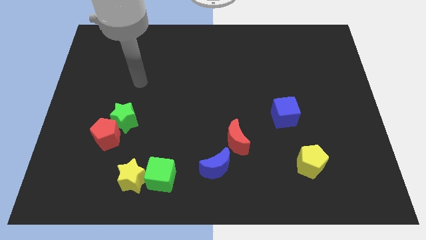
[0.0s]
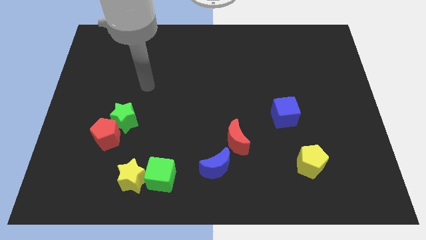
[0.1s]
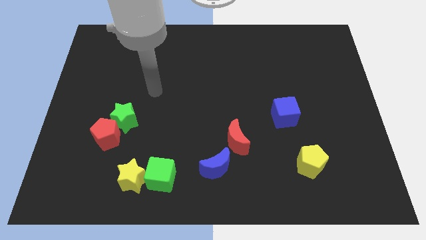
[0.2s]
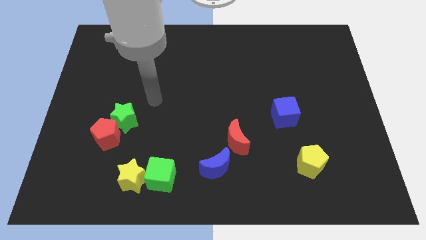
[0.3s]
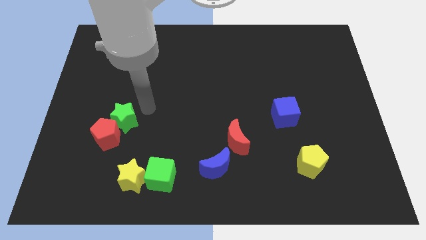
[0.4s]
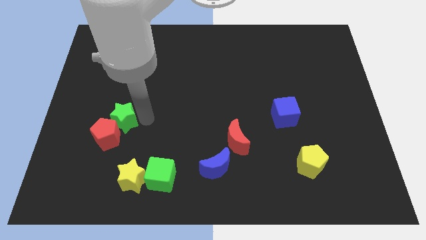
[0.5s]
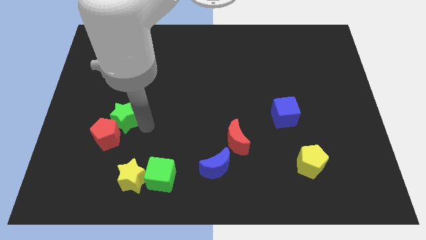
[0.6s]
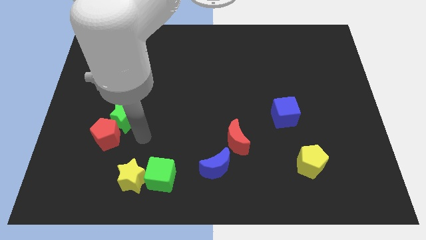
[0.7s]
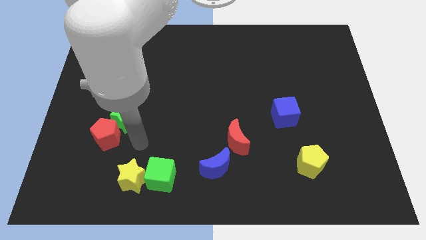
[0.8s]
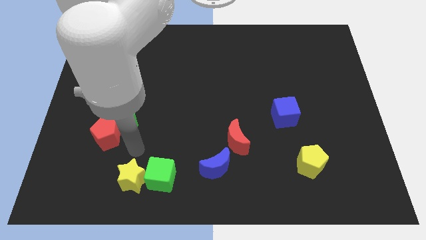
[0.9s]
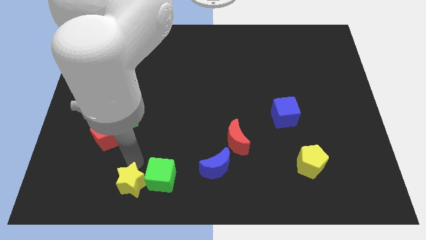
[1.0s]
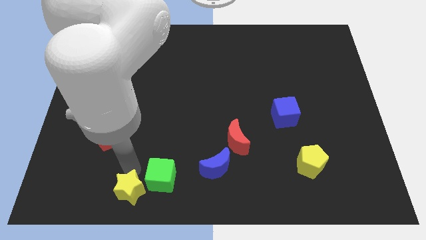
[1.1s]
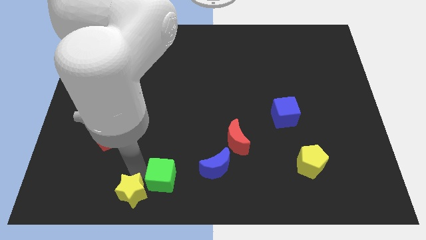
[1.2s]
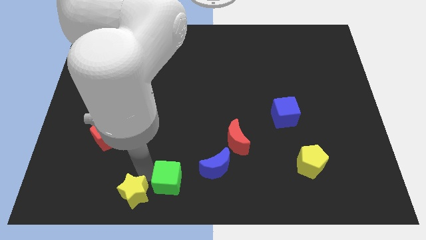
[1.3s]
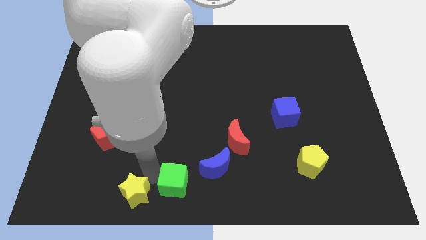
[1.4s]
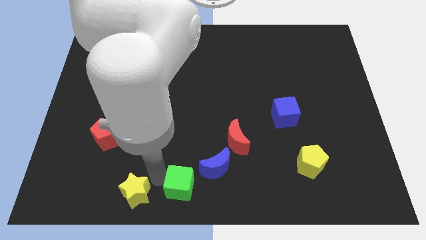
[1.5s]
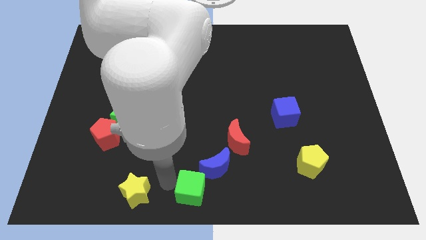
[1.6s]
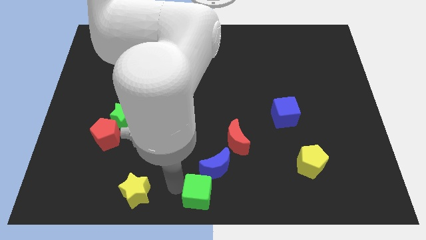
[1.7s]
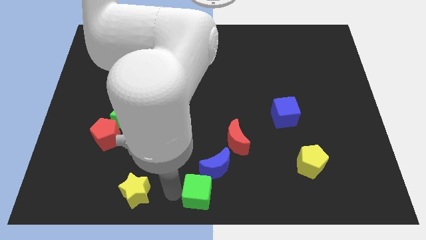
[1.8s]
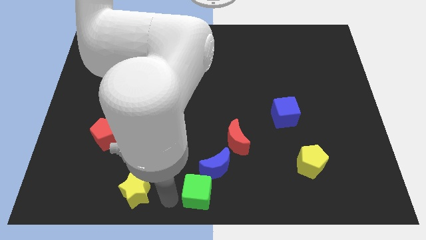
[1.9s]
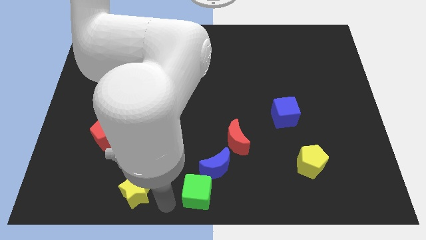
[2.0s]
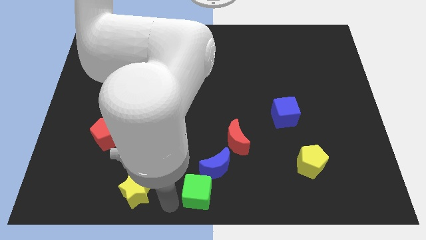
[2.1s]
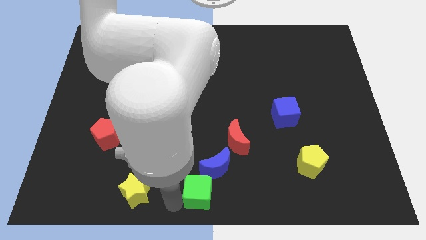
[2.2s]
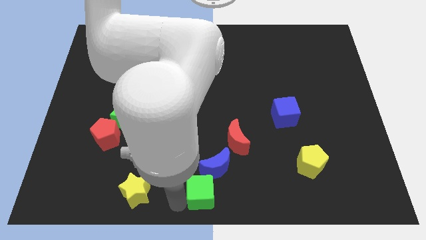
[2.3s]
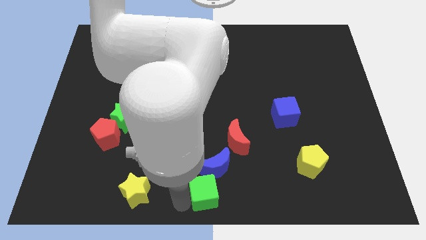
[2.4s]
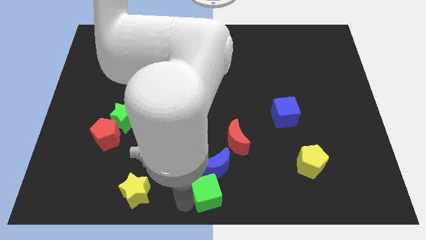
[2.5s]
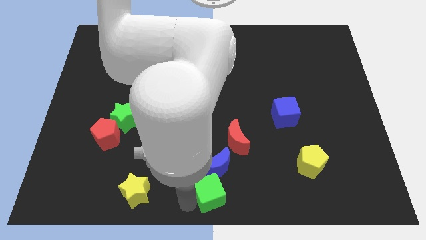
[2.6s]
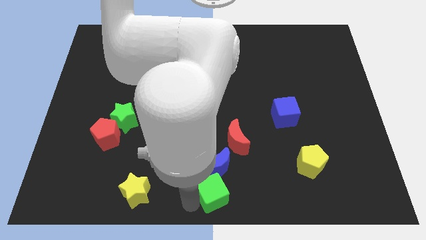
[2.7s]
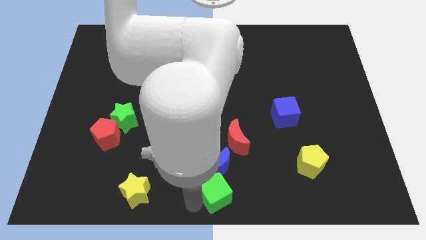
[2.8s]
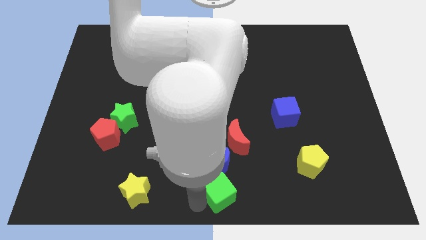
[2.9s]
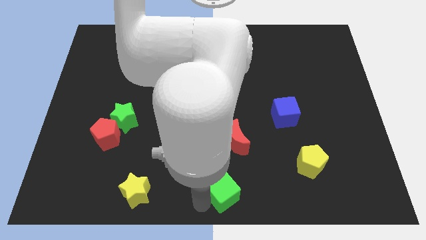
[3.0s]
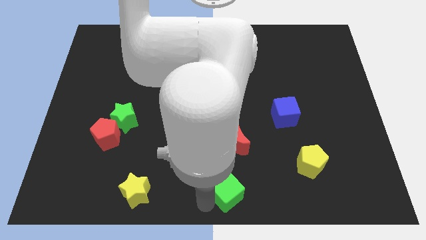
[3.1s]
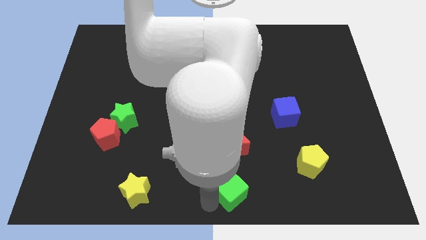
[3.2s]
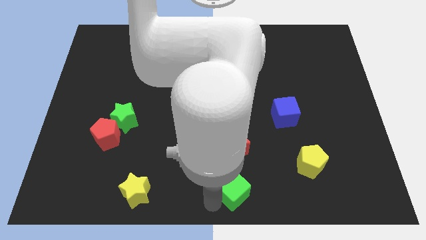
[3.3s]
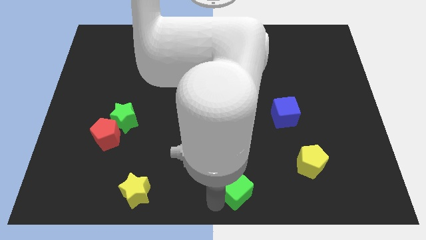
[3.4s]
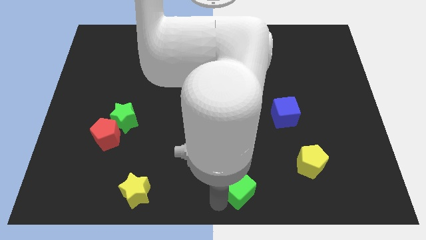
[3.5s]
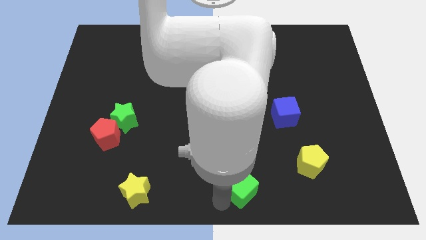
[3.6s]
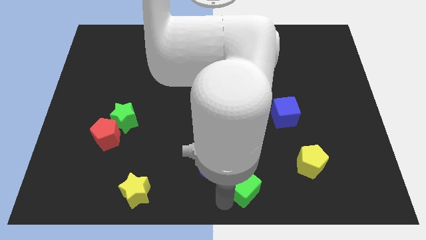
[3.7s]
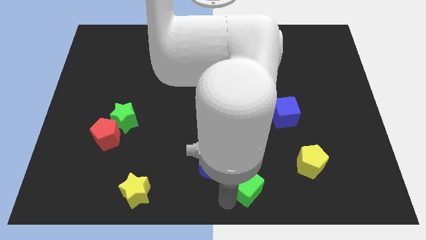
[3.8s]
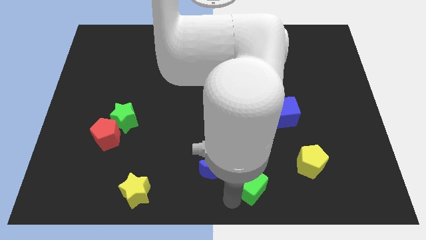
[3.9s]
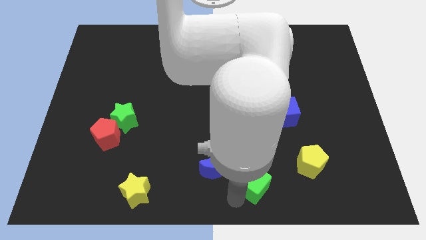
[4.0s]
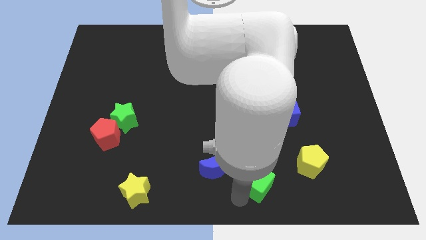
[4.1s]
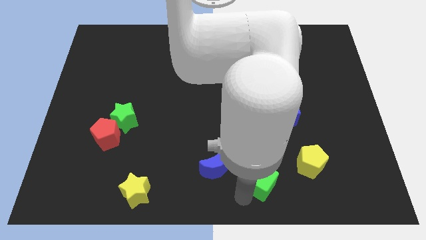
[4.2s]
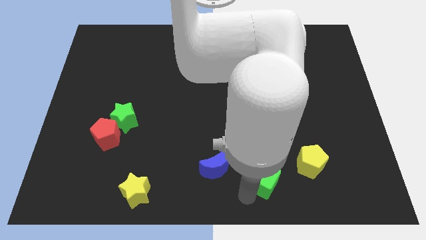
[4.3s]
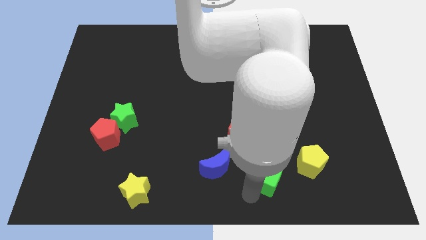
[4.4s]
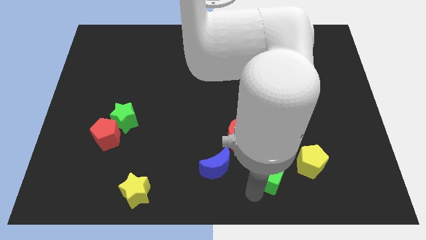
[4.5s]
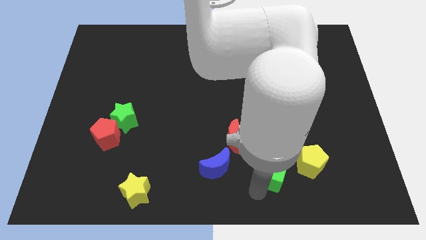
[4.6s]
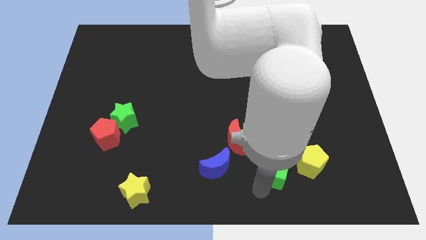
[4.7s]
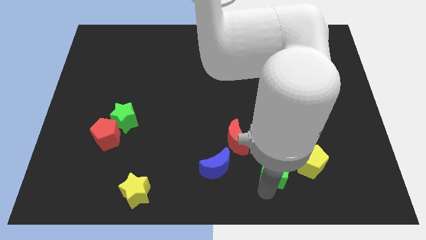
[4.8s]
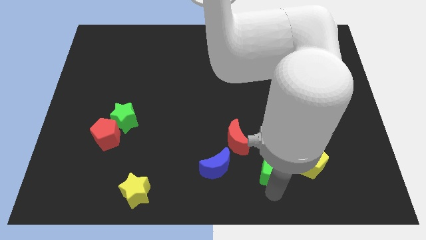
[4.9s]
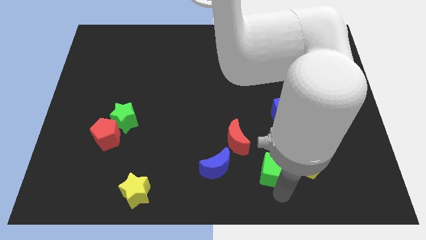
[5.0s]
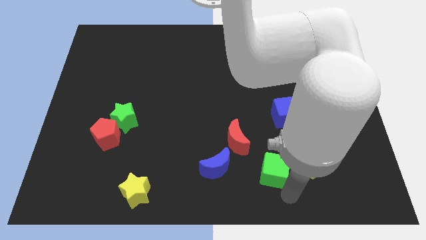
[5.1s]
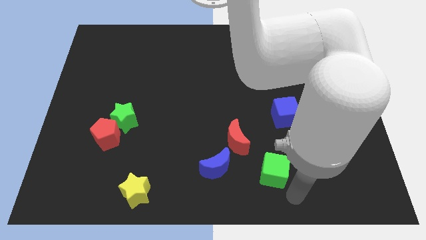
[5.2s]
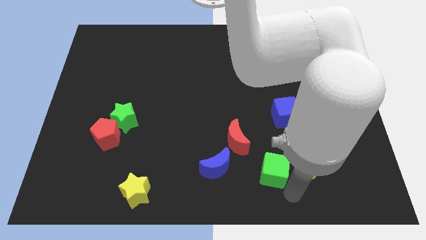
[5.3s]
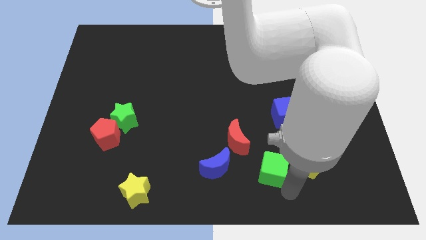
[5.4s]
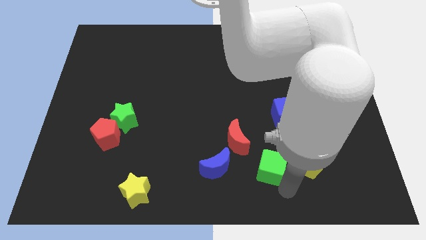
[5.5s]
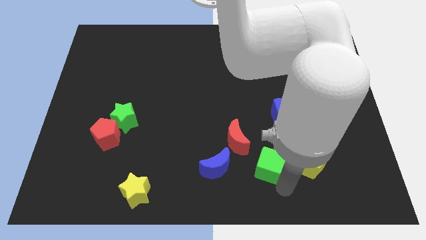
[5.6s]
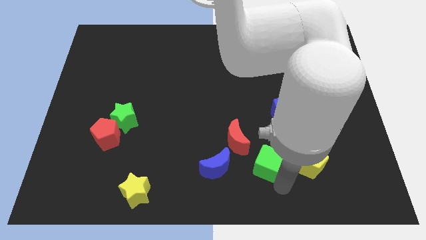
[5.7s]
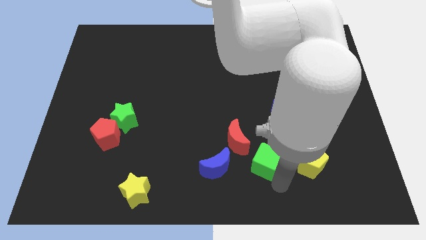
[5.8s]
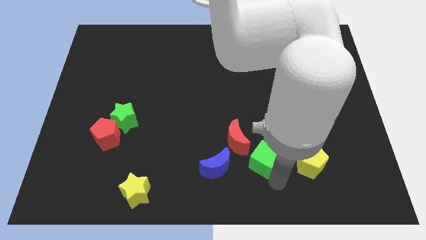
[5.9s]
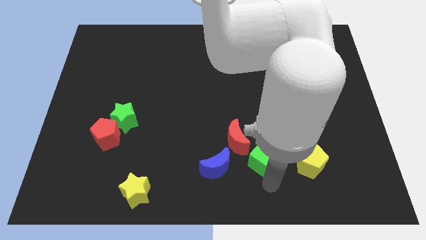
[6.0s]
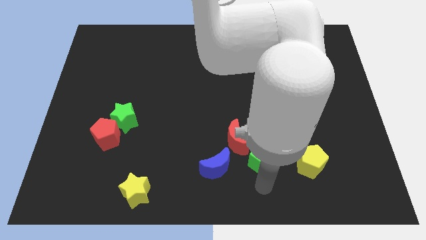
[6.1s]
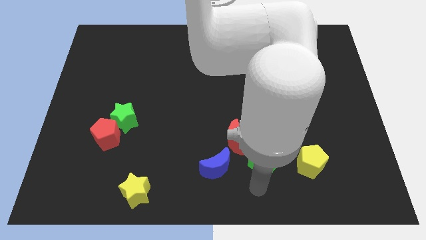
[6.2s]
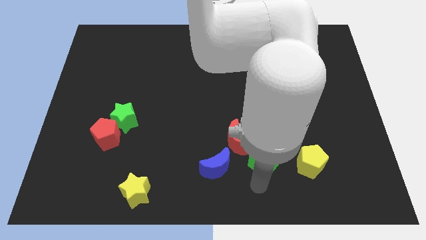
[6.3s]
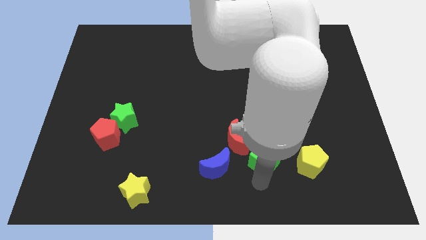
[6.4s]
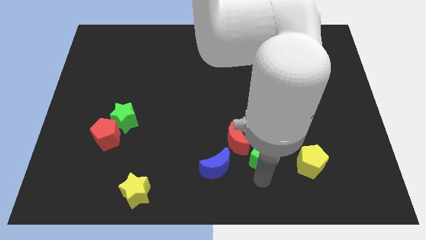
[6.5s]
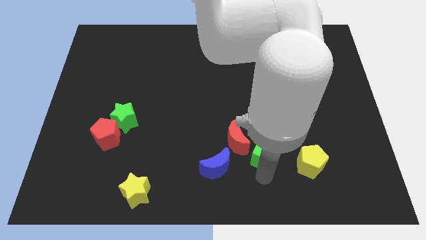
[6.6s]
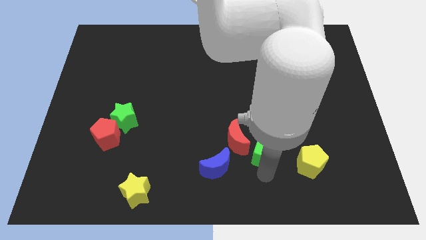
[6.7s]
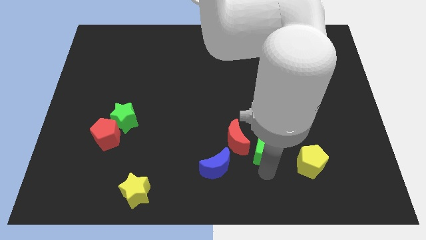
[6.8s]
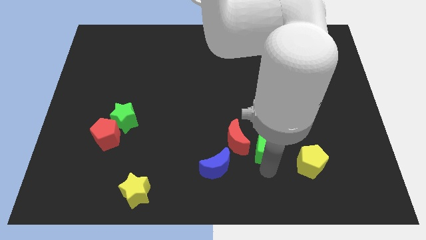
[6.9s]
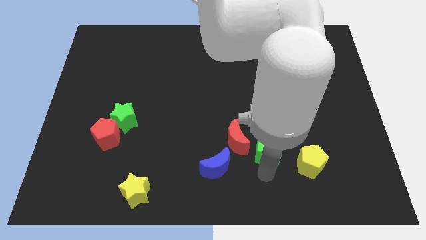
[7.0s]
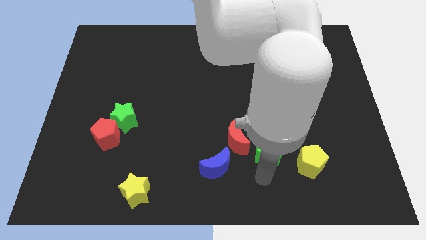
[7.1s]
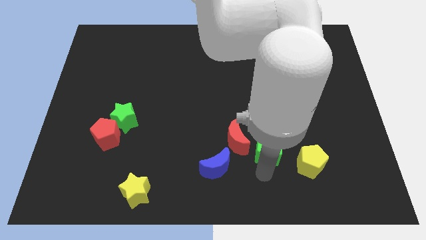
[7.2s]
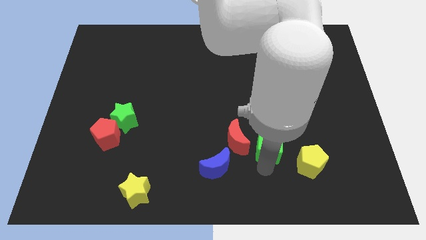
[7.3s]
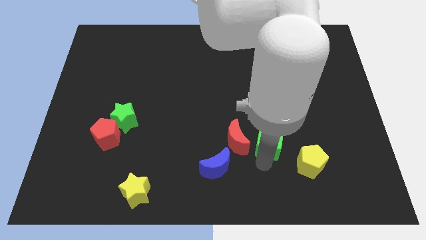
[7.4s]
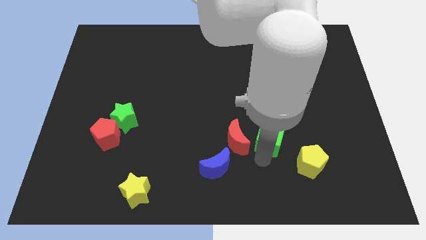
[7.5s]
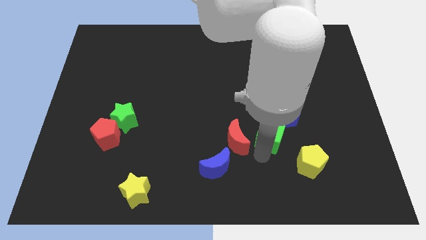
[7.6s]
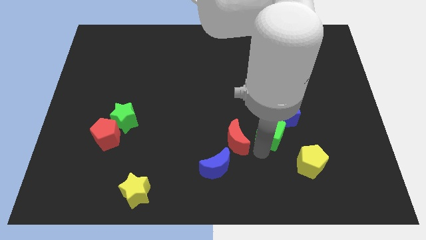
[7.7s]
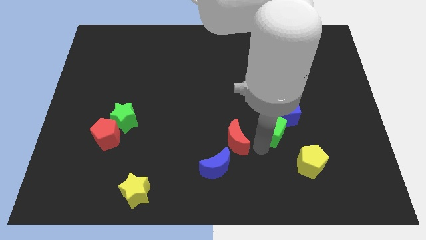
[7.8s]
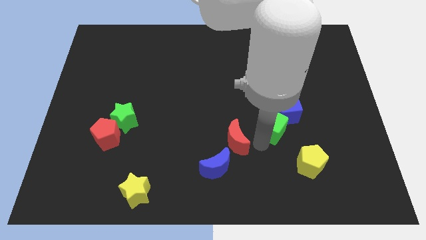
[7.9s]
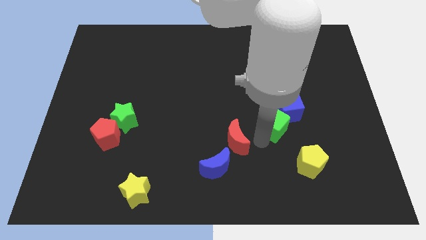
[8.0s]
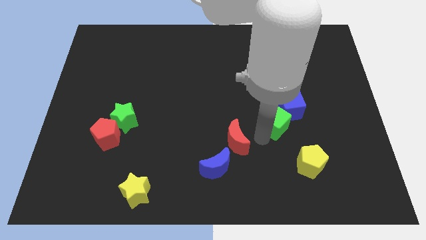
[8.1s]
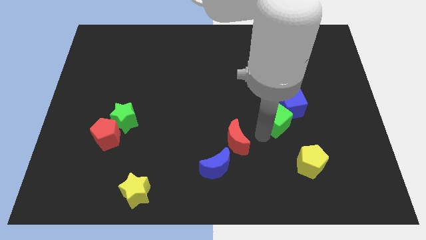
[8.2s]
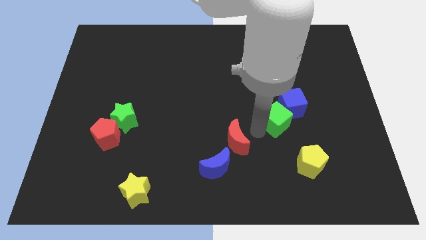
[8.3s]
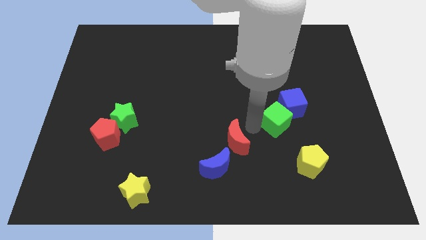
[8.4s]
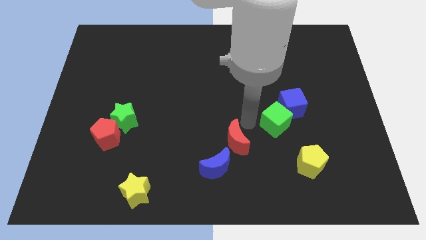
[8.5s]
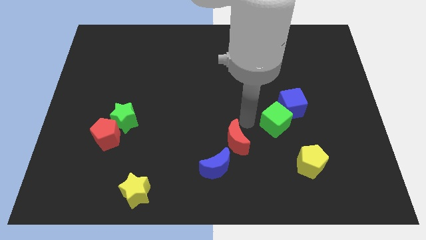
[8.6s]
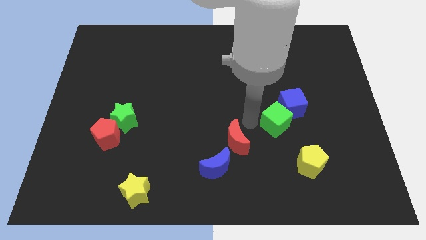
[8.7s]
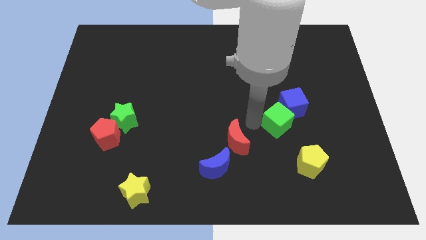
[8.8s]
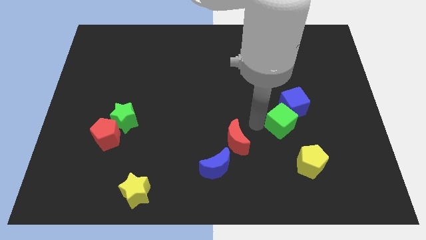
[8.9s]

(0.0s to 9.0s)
slide the green cube to the top of the yellow pentagon
